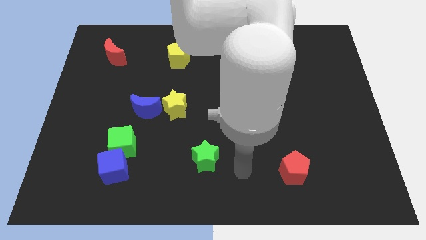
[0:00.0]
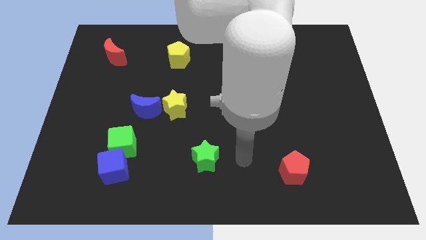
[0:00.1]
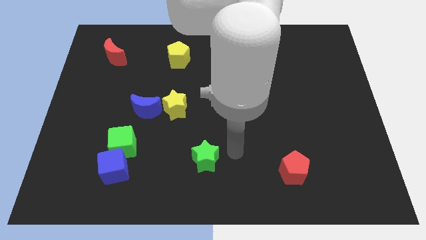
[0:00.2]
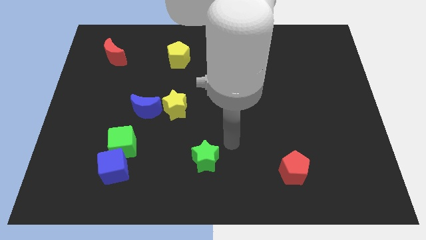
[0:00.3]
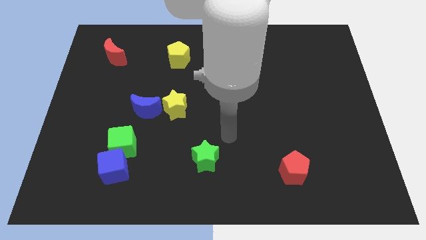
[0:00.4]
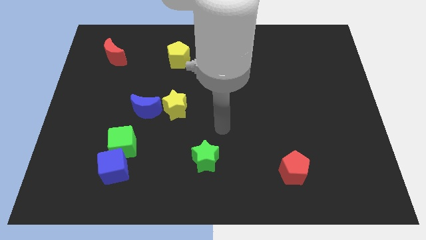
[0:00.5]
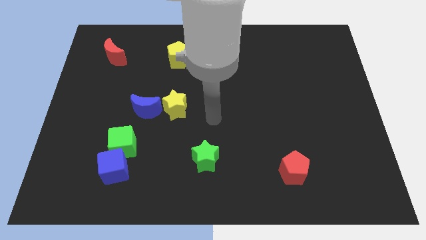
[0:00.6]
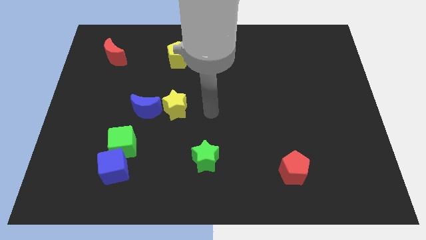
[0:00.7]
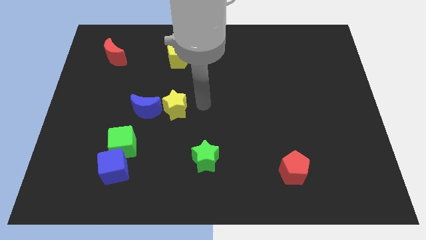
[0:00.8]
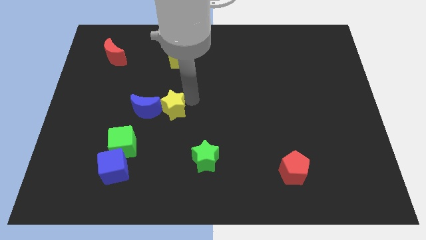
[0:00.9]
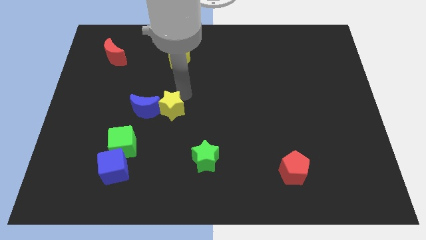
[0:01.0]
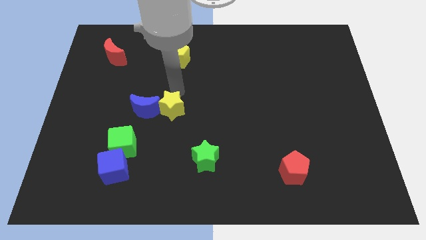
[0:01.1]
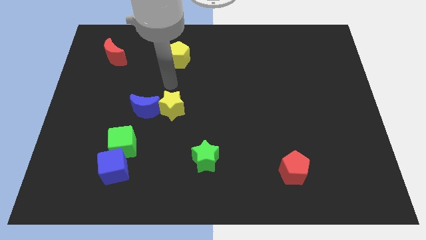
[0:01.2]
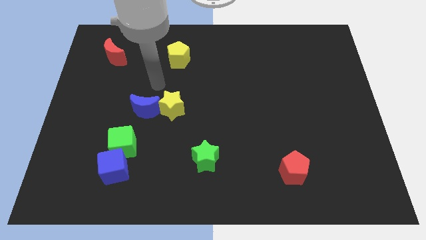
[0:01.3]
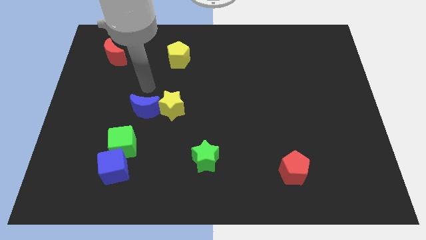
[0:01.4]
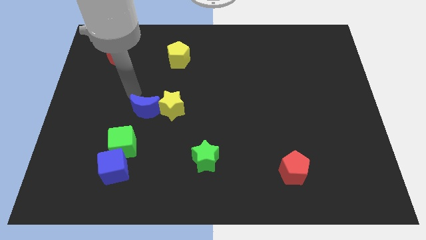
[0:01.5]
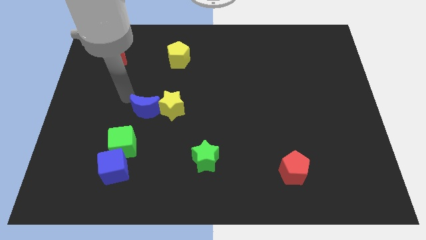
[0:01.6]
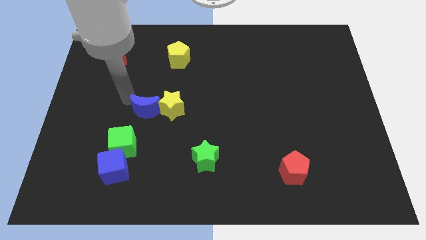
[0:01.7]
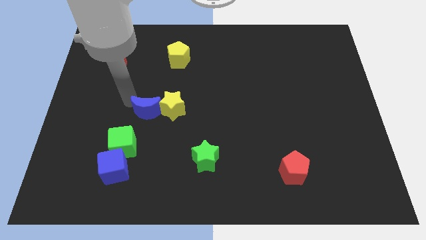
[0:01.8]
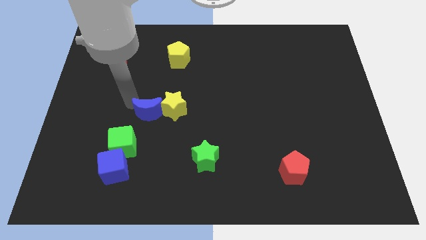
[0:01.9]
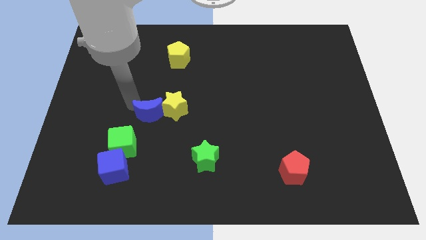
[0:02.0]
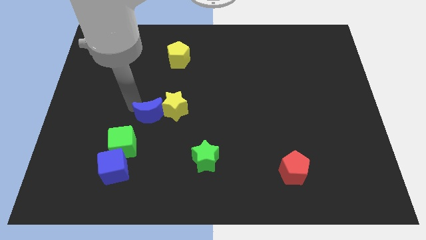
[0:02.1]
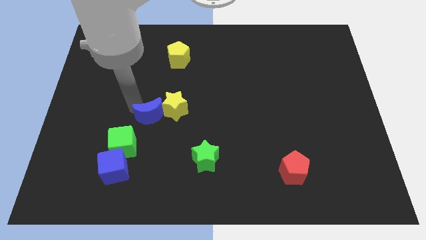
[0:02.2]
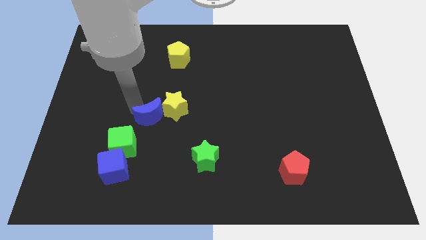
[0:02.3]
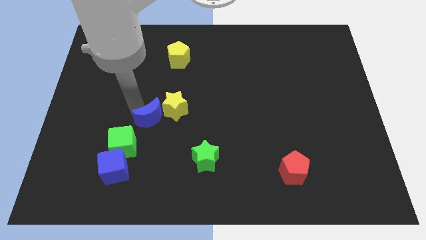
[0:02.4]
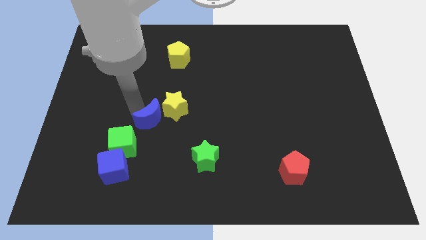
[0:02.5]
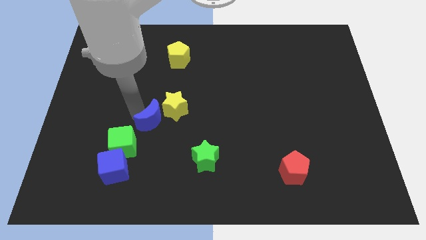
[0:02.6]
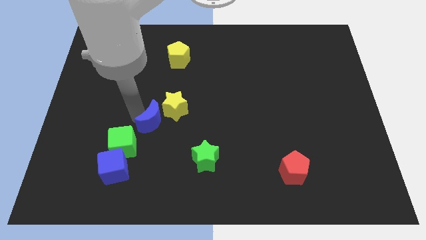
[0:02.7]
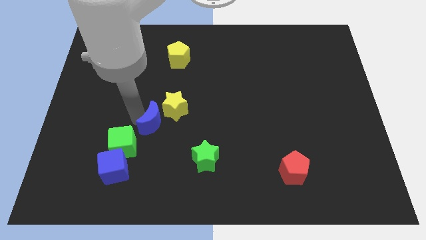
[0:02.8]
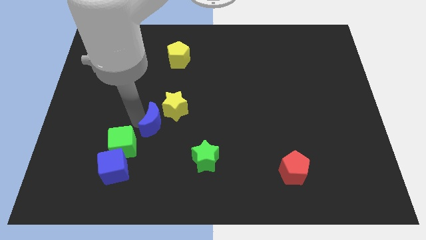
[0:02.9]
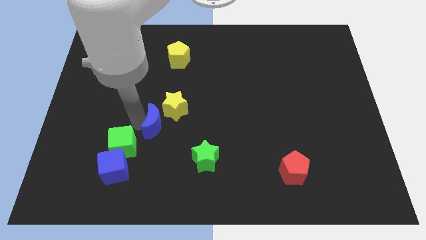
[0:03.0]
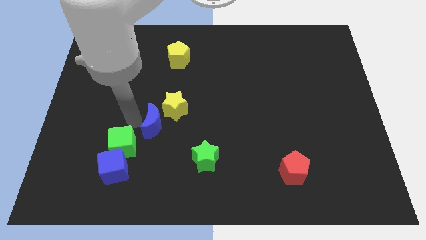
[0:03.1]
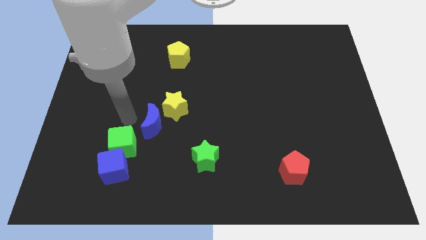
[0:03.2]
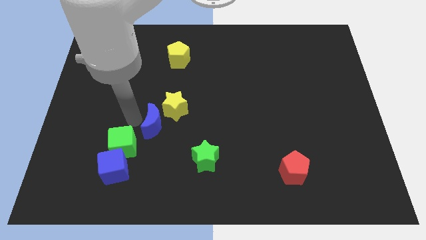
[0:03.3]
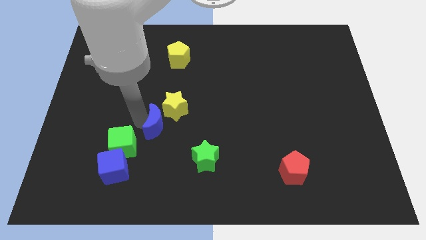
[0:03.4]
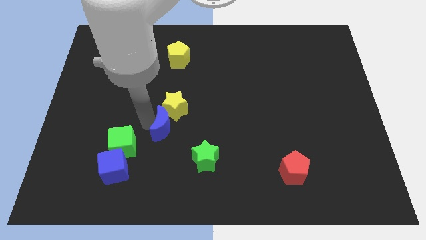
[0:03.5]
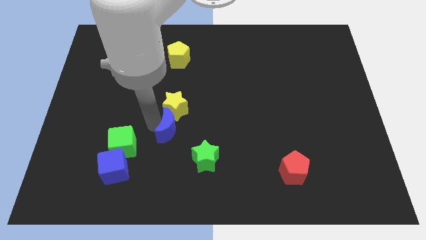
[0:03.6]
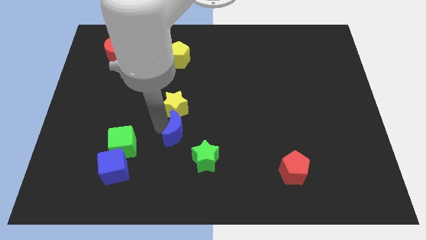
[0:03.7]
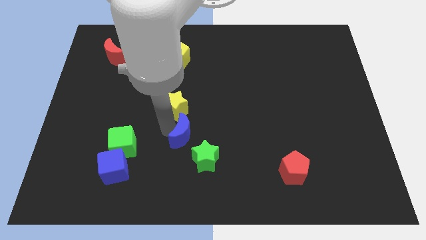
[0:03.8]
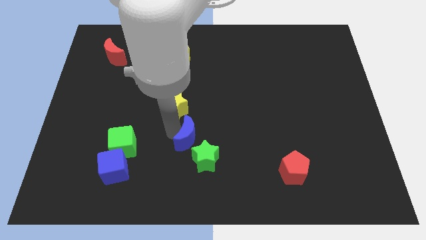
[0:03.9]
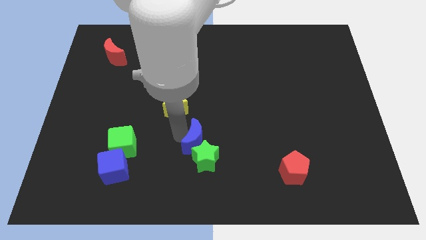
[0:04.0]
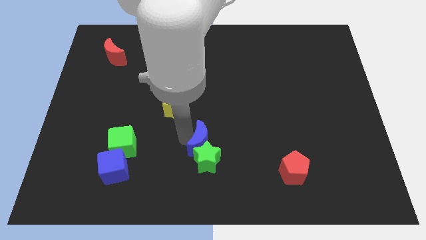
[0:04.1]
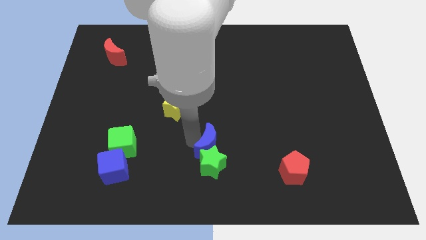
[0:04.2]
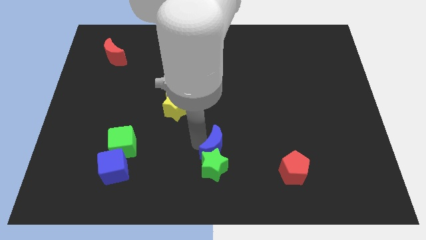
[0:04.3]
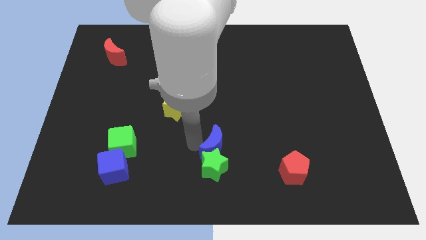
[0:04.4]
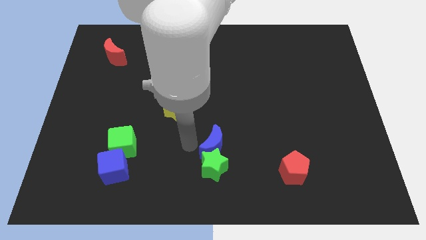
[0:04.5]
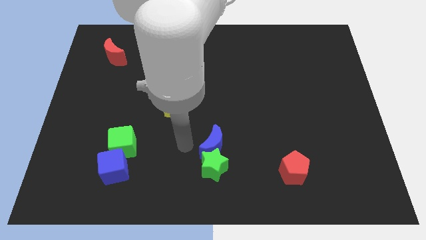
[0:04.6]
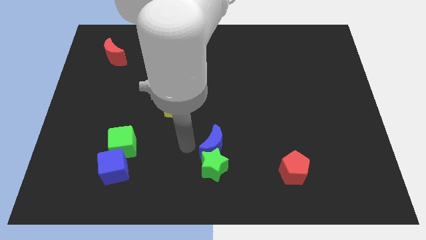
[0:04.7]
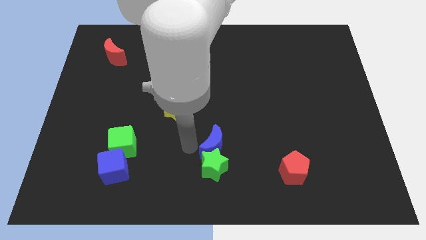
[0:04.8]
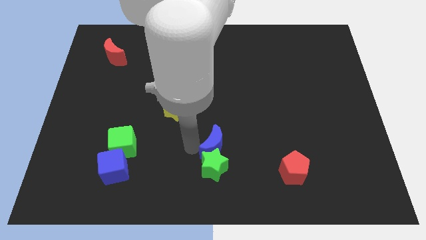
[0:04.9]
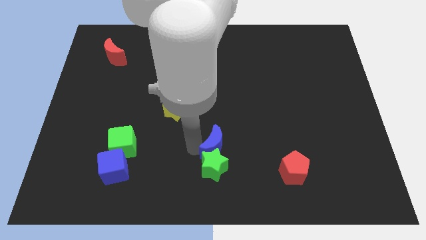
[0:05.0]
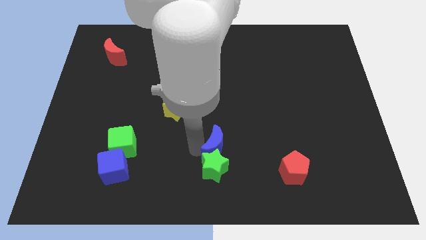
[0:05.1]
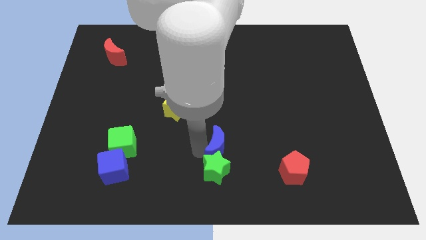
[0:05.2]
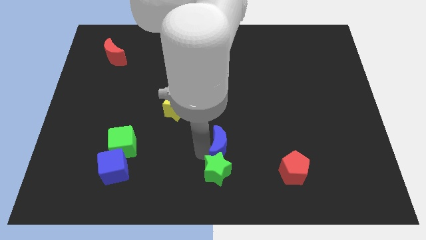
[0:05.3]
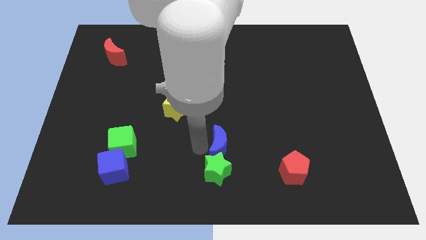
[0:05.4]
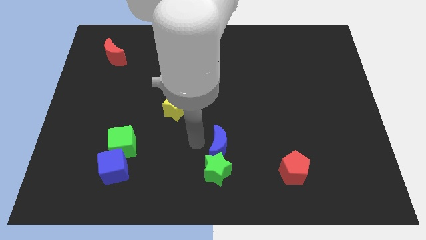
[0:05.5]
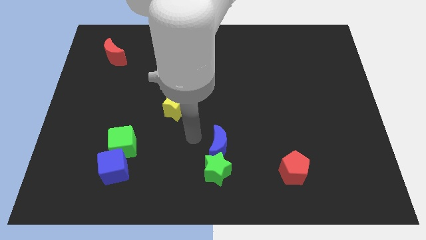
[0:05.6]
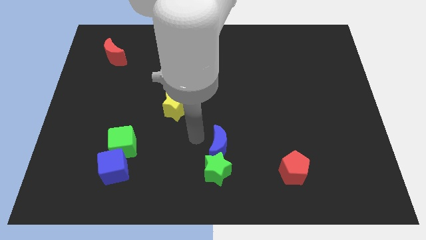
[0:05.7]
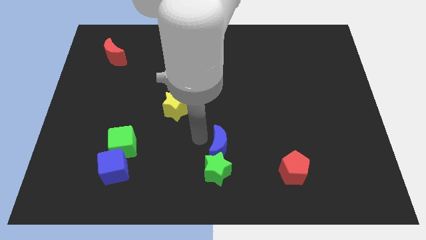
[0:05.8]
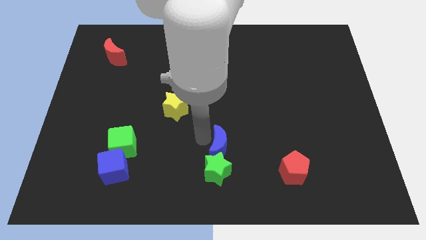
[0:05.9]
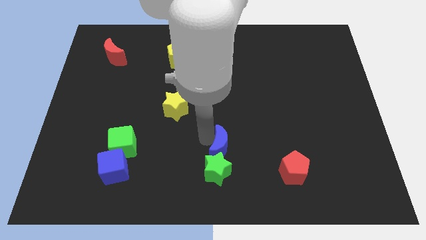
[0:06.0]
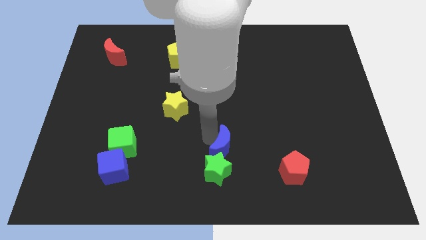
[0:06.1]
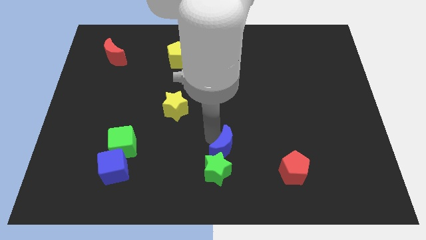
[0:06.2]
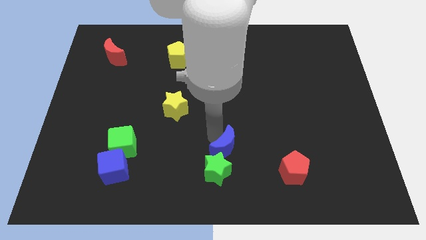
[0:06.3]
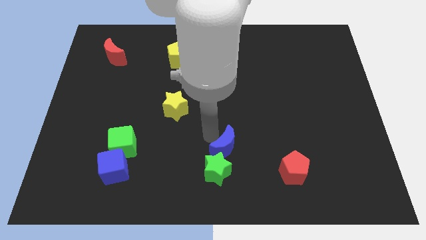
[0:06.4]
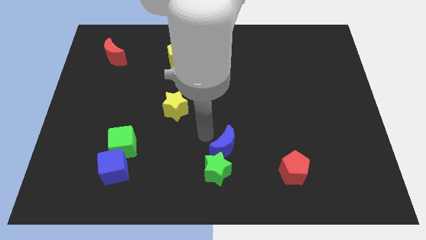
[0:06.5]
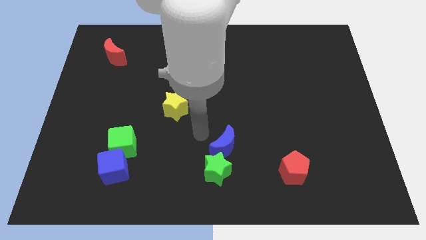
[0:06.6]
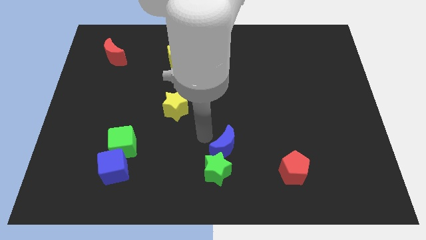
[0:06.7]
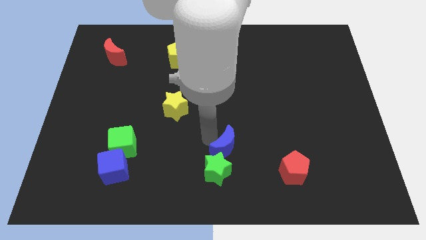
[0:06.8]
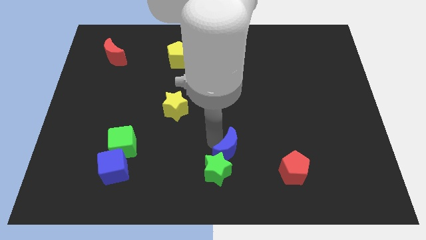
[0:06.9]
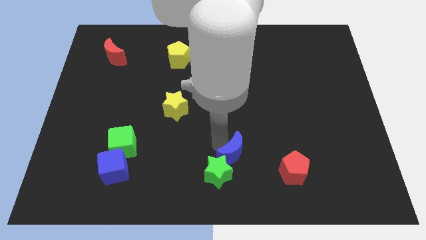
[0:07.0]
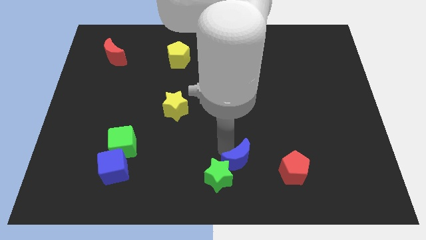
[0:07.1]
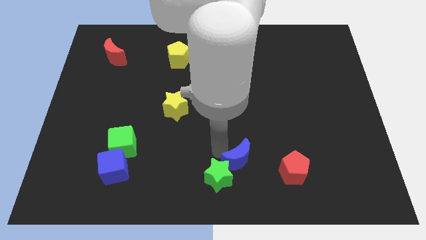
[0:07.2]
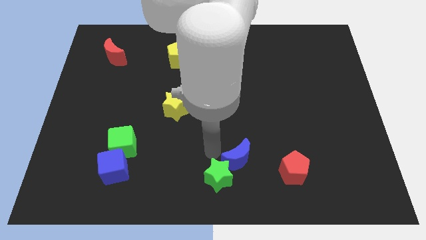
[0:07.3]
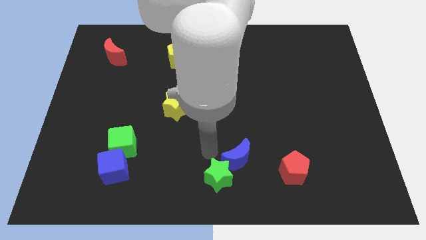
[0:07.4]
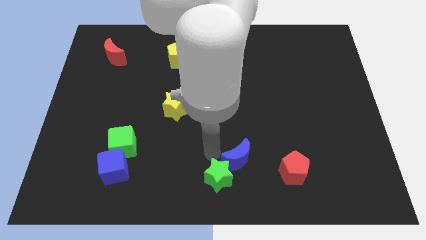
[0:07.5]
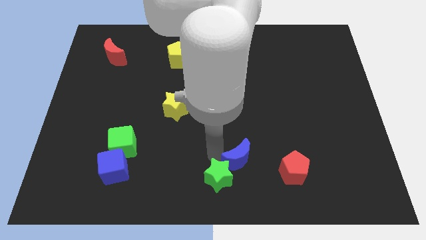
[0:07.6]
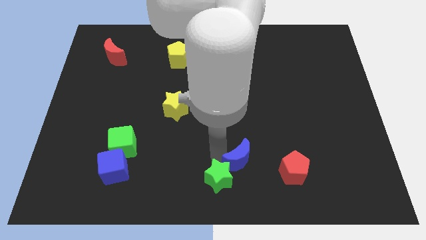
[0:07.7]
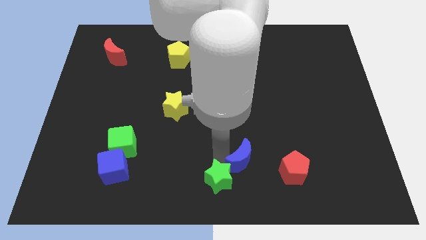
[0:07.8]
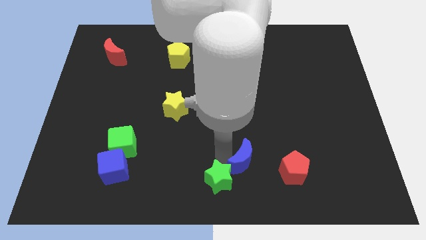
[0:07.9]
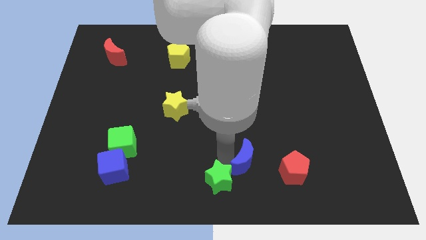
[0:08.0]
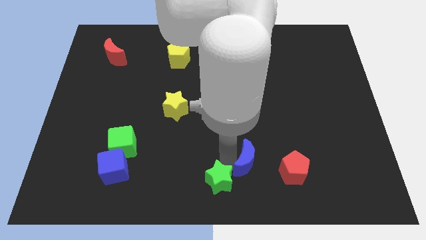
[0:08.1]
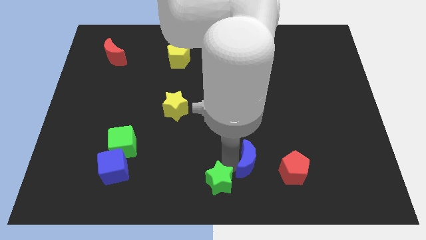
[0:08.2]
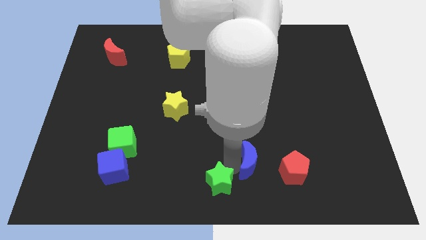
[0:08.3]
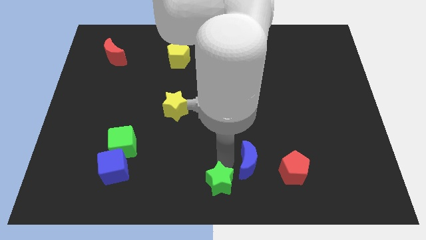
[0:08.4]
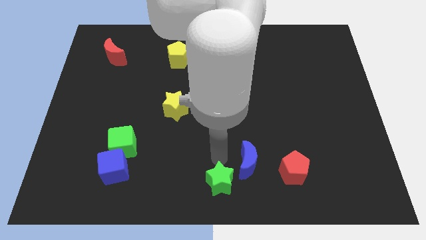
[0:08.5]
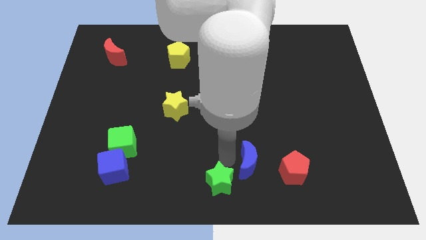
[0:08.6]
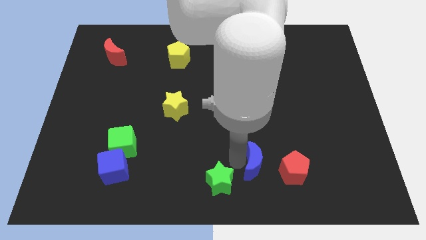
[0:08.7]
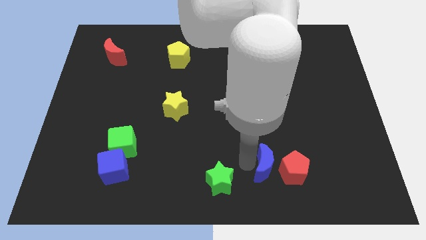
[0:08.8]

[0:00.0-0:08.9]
put the blue moon towards the red pentagon
